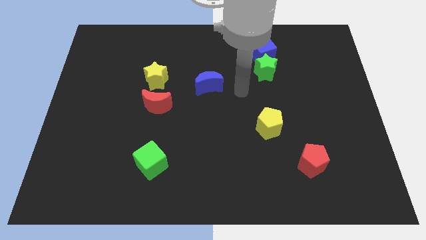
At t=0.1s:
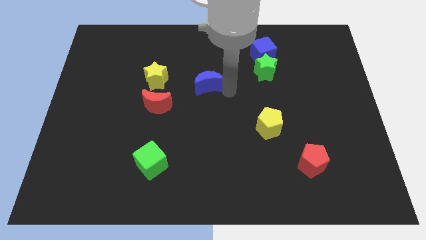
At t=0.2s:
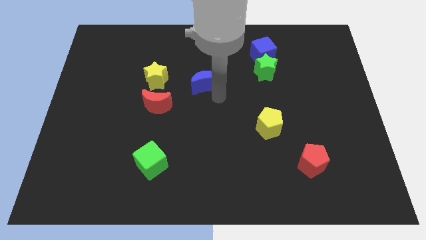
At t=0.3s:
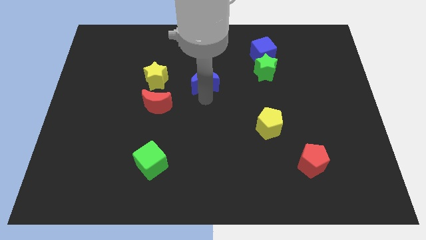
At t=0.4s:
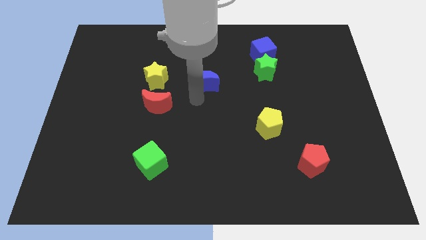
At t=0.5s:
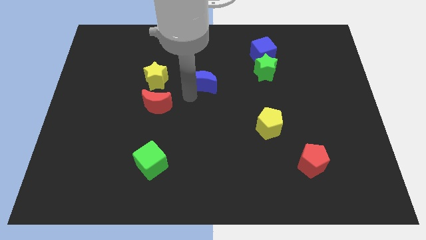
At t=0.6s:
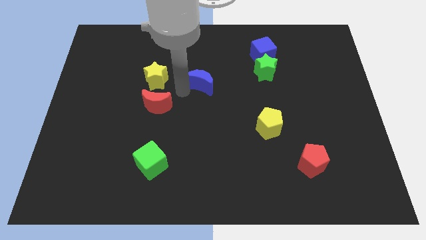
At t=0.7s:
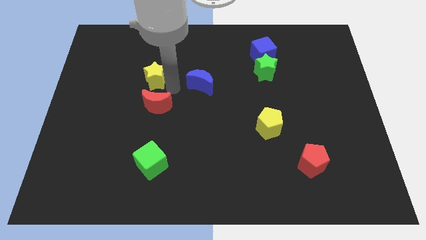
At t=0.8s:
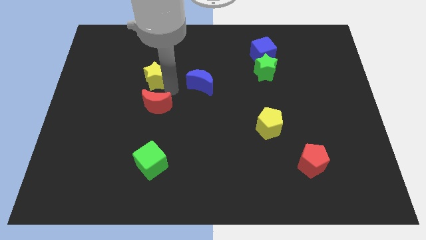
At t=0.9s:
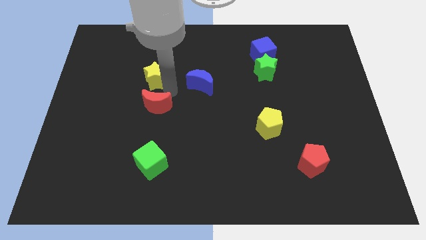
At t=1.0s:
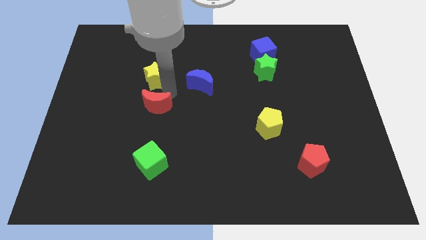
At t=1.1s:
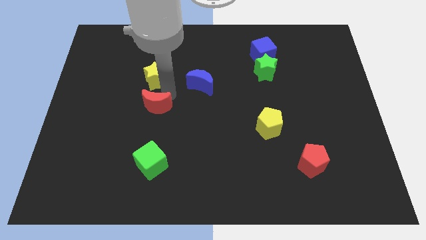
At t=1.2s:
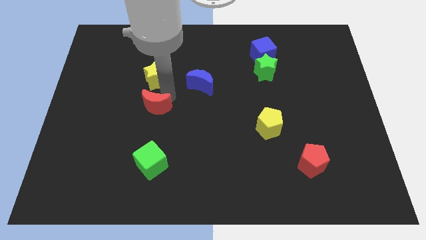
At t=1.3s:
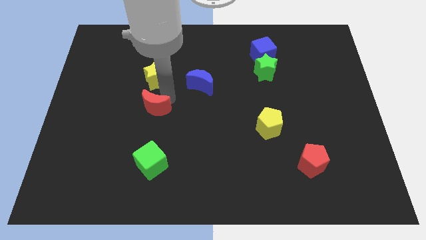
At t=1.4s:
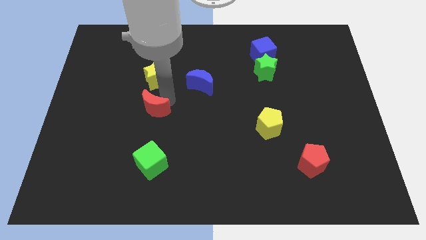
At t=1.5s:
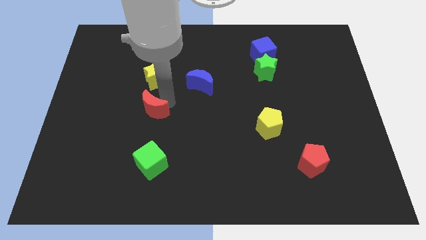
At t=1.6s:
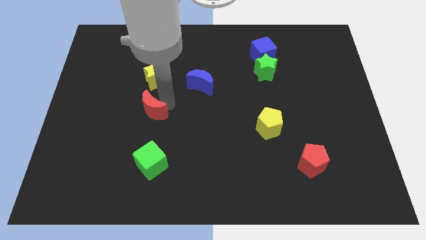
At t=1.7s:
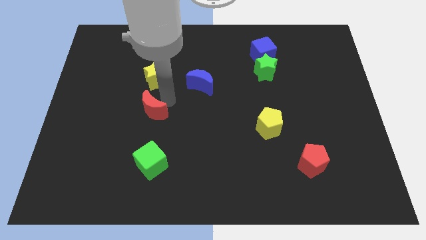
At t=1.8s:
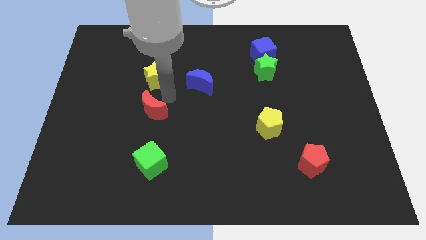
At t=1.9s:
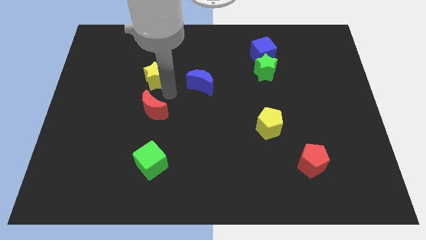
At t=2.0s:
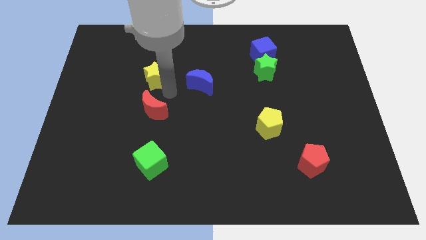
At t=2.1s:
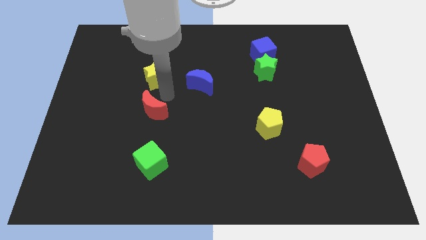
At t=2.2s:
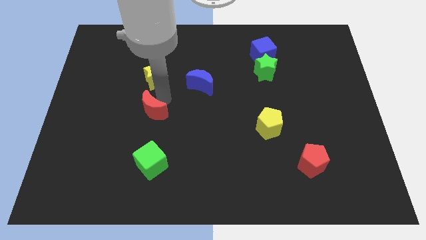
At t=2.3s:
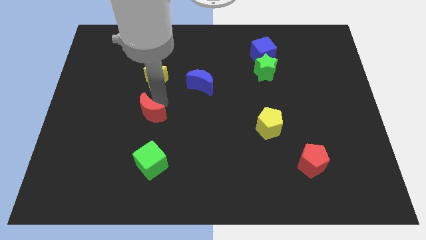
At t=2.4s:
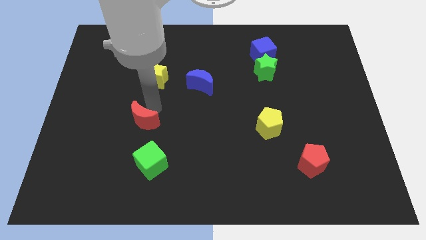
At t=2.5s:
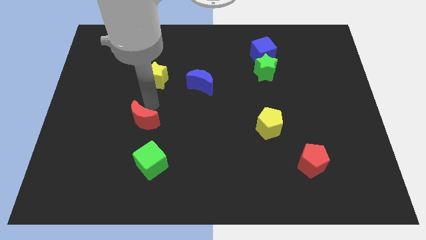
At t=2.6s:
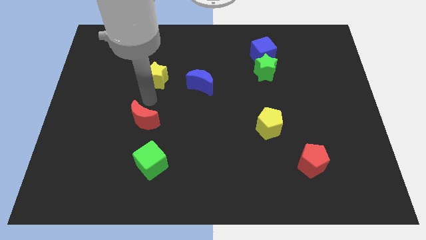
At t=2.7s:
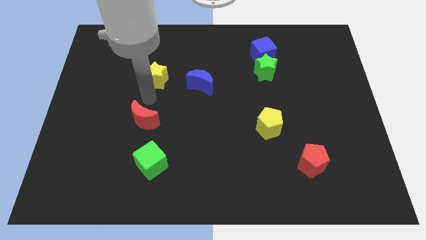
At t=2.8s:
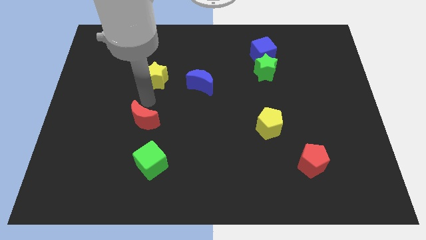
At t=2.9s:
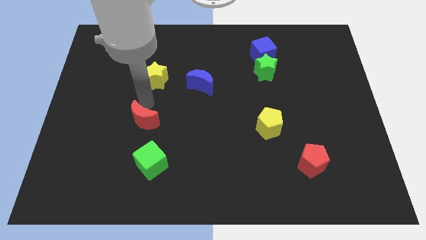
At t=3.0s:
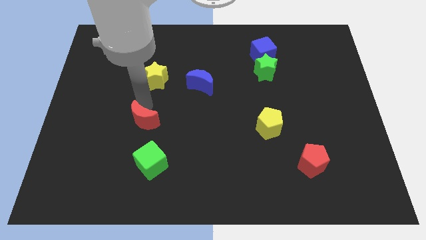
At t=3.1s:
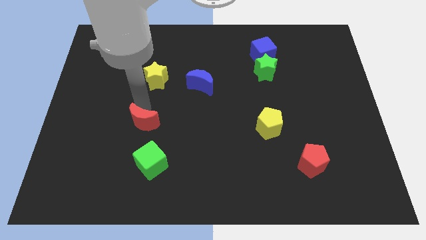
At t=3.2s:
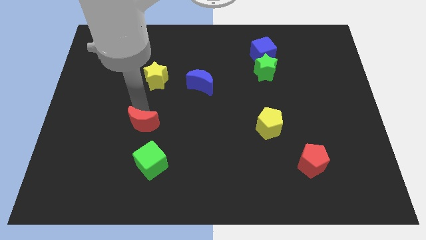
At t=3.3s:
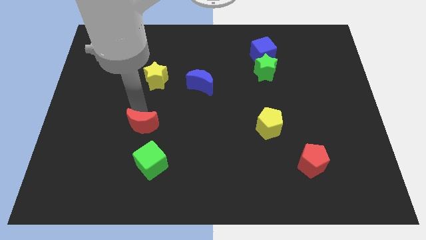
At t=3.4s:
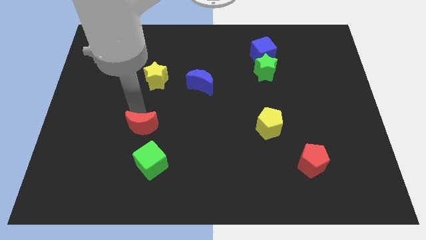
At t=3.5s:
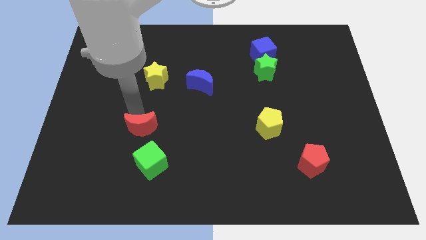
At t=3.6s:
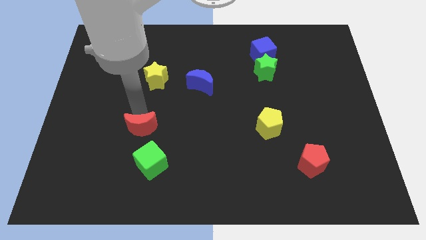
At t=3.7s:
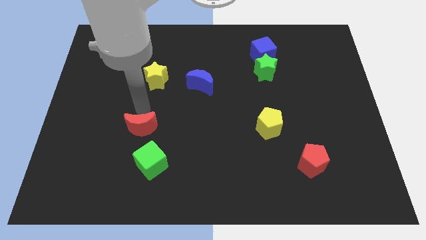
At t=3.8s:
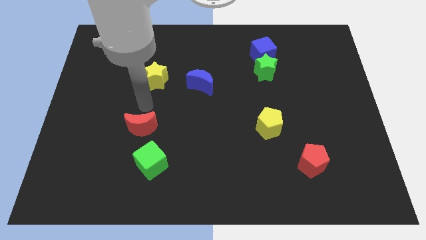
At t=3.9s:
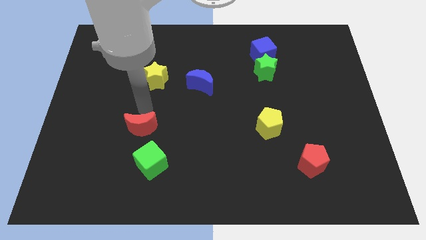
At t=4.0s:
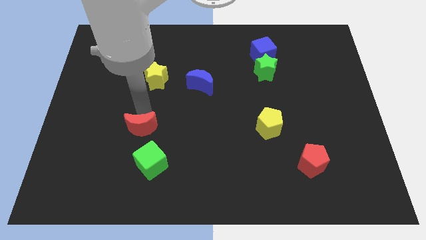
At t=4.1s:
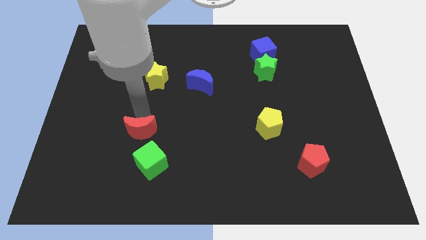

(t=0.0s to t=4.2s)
slide the red moon a little downwards

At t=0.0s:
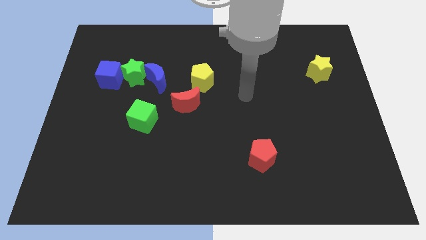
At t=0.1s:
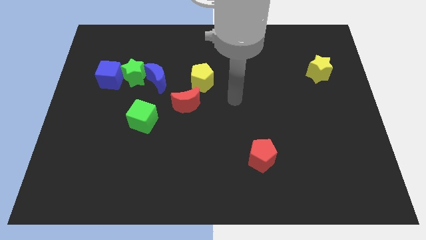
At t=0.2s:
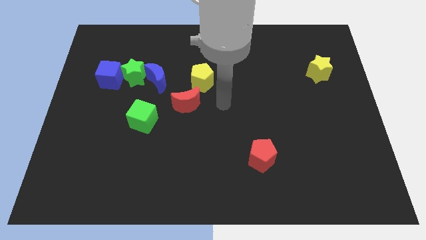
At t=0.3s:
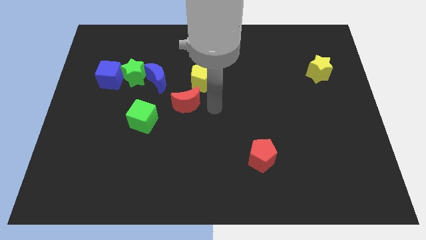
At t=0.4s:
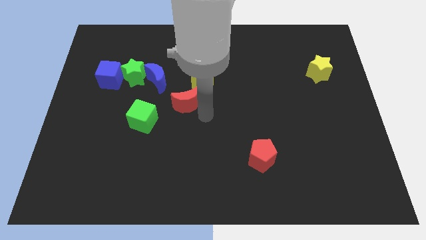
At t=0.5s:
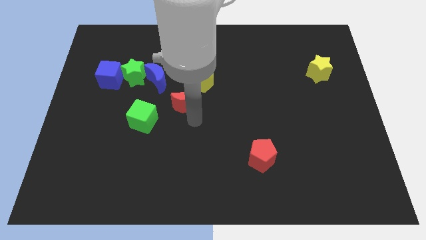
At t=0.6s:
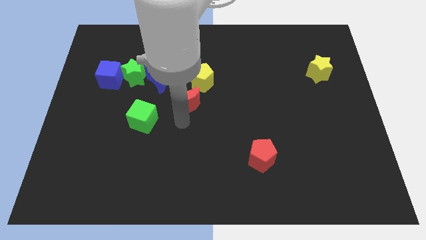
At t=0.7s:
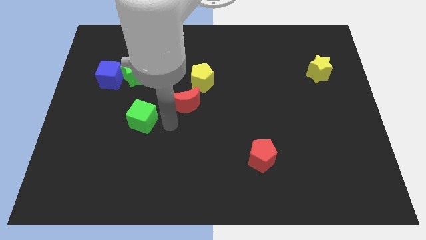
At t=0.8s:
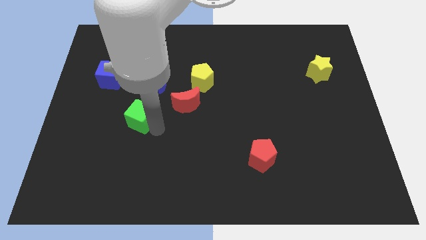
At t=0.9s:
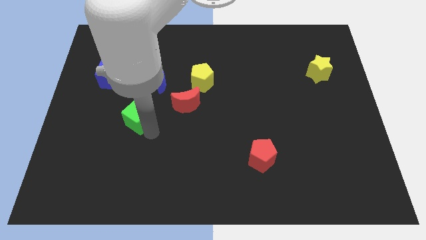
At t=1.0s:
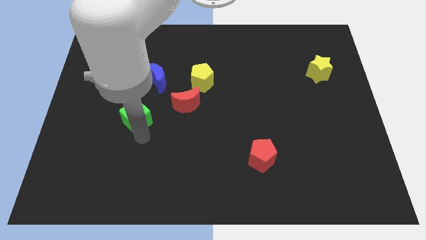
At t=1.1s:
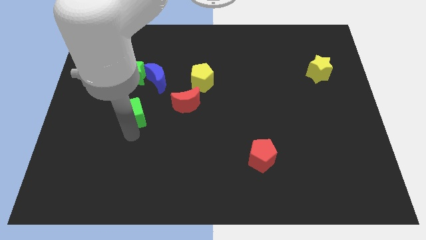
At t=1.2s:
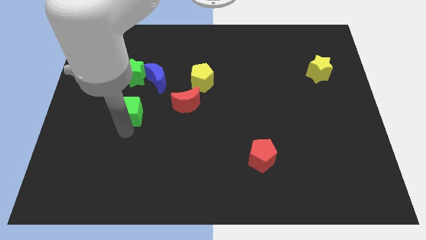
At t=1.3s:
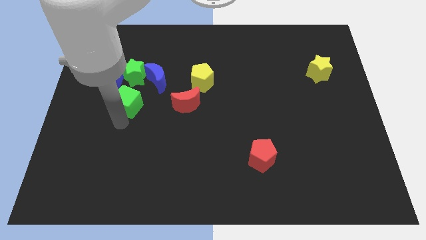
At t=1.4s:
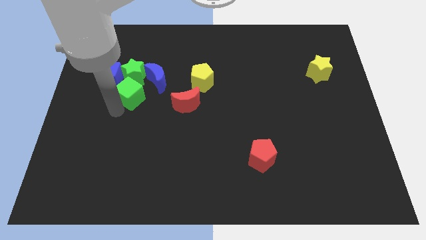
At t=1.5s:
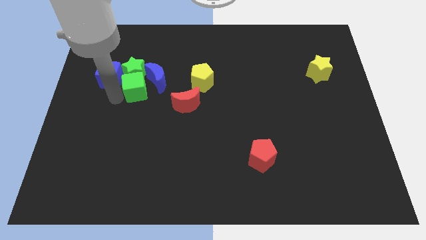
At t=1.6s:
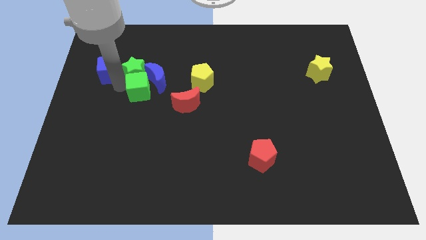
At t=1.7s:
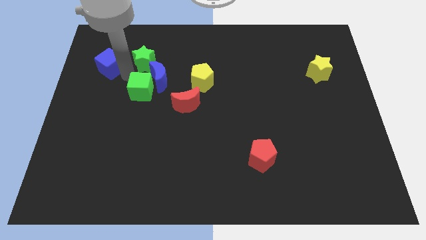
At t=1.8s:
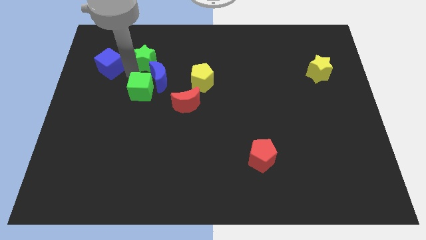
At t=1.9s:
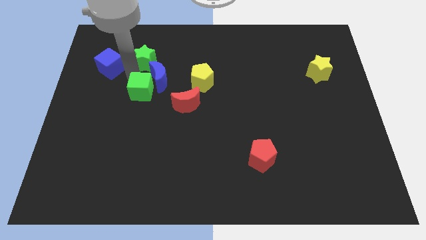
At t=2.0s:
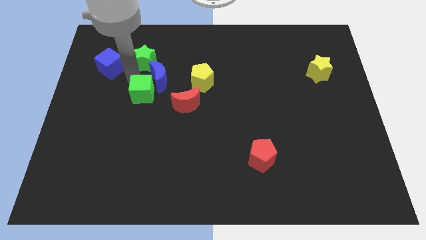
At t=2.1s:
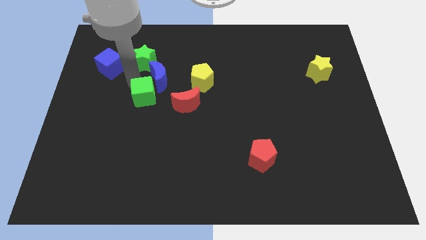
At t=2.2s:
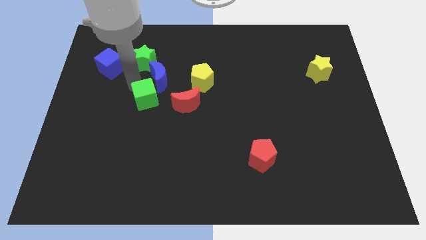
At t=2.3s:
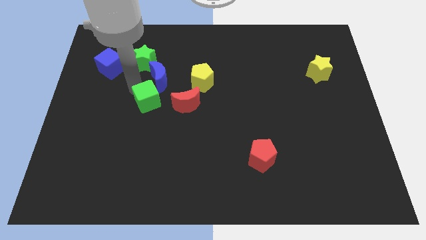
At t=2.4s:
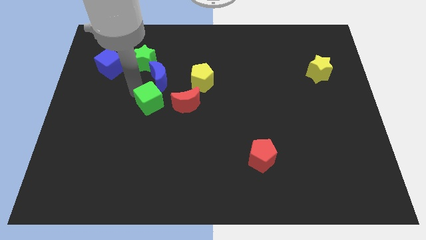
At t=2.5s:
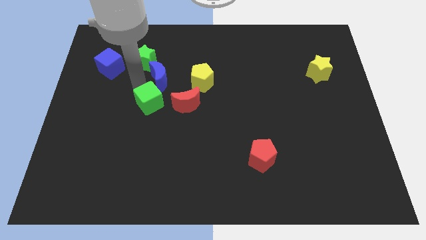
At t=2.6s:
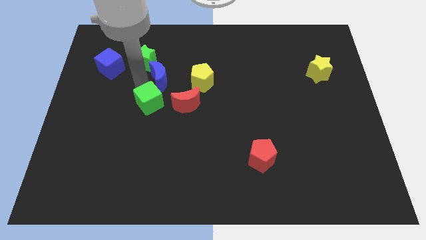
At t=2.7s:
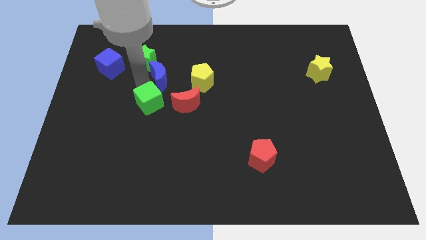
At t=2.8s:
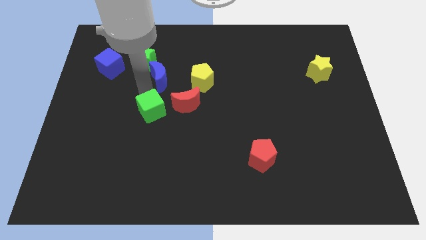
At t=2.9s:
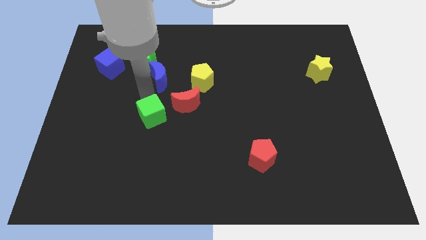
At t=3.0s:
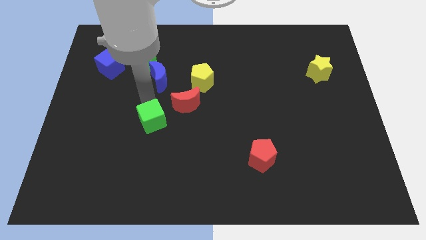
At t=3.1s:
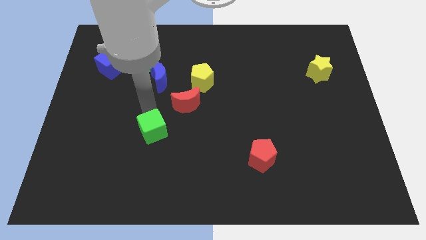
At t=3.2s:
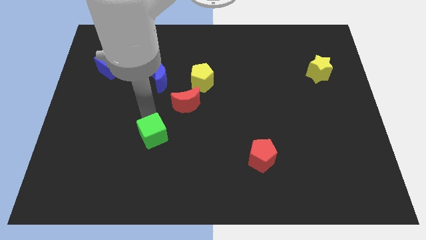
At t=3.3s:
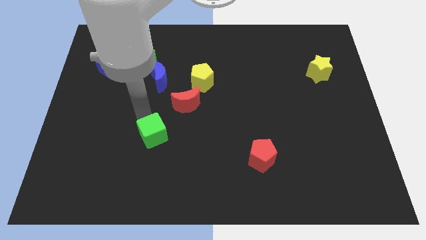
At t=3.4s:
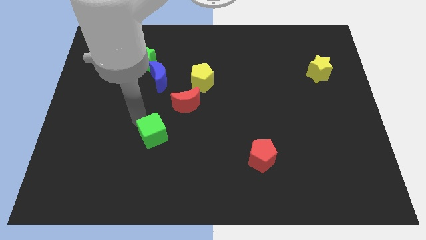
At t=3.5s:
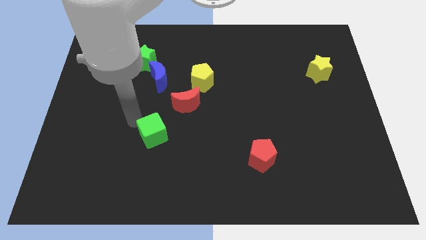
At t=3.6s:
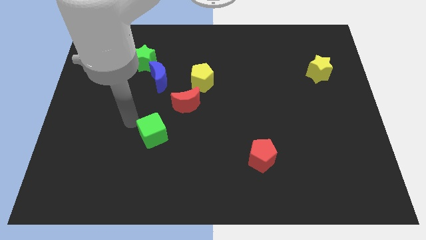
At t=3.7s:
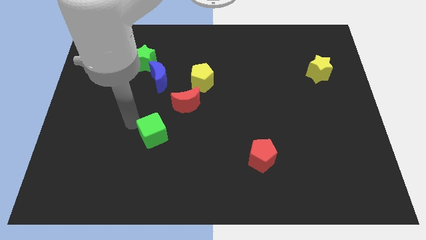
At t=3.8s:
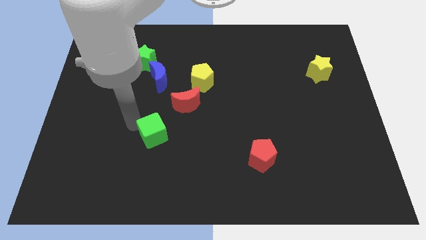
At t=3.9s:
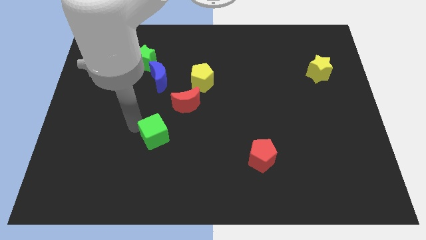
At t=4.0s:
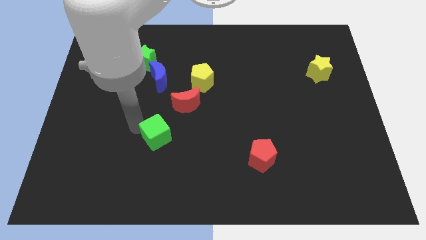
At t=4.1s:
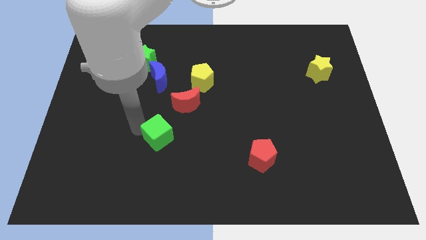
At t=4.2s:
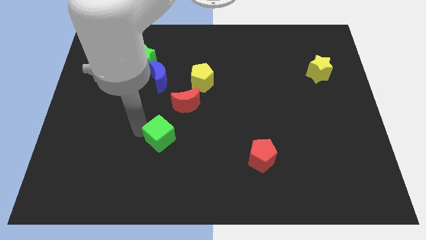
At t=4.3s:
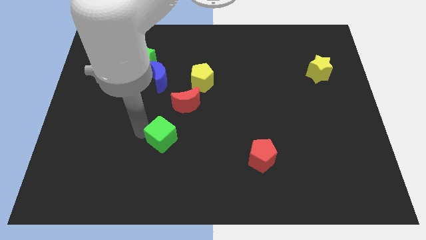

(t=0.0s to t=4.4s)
slightly slide the green cube downwards and then to the right

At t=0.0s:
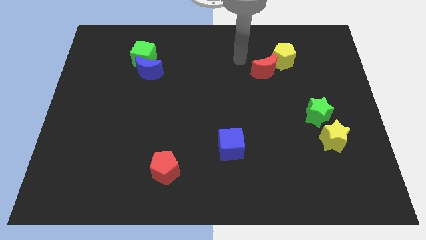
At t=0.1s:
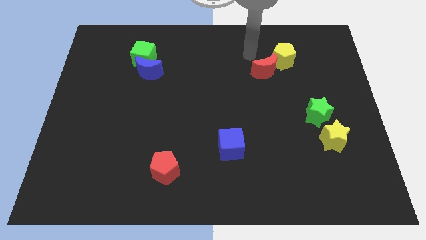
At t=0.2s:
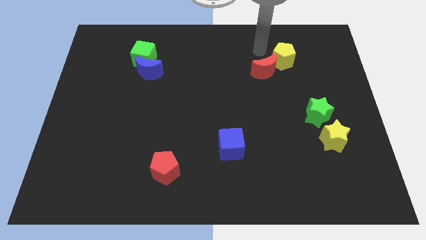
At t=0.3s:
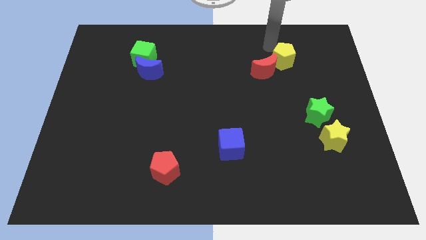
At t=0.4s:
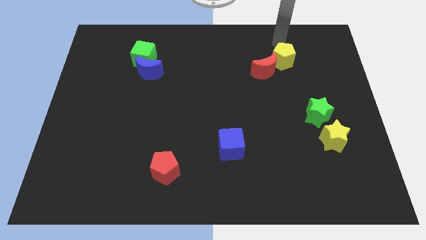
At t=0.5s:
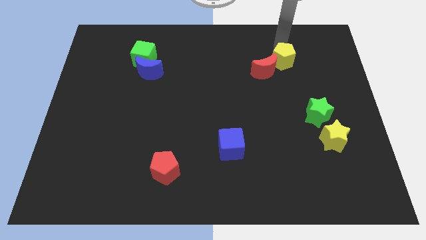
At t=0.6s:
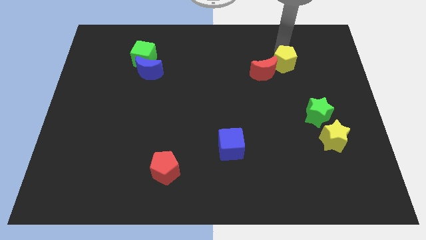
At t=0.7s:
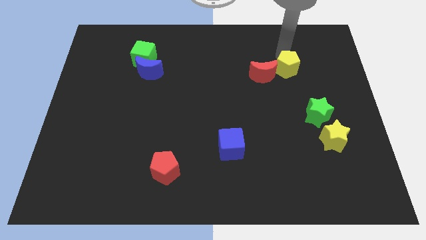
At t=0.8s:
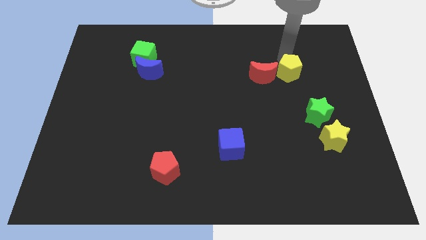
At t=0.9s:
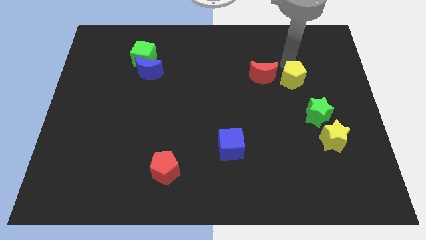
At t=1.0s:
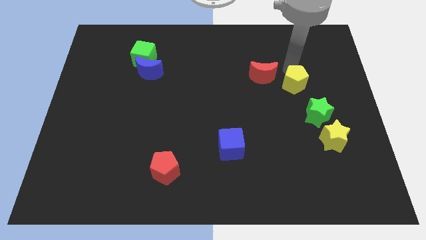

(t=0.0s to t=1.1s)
slide the yellow pentagon down a little
